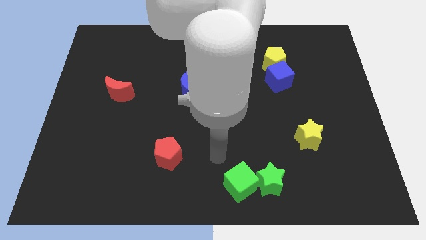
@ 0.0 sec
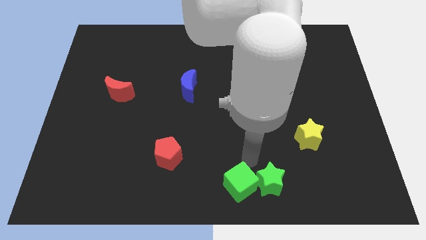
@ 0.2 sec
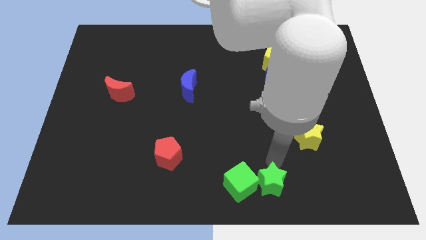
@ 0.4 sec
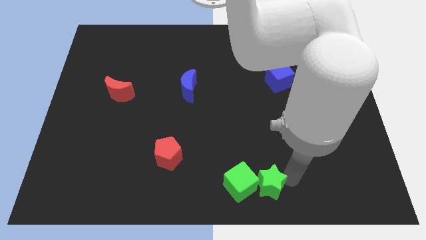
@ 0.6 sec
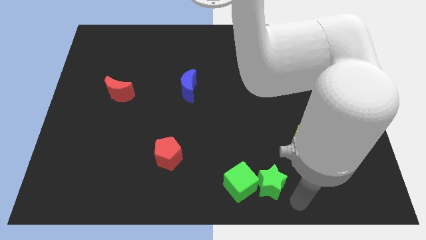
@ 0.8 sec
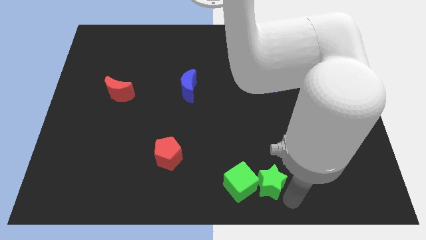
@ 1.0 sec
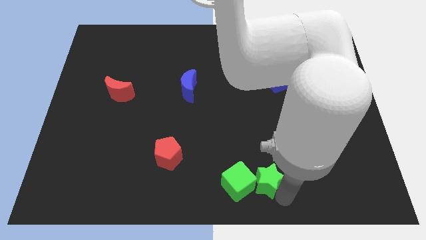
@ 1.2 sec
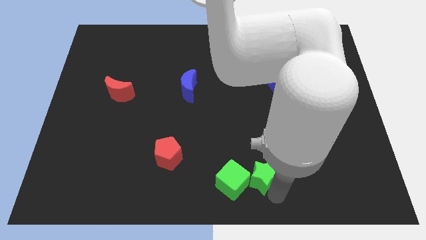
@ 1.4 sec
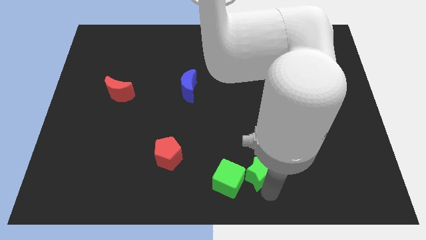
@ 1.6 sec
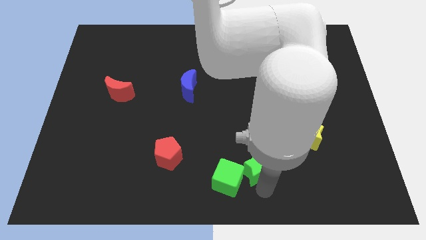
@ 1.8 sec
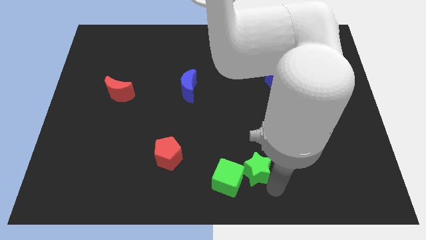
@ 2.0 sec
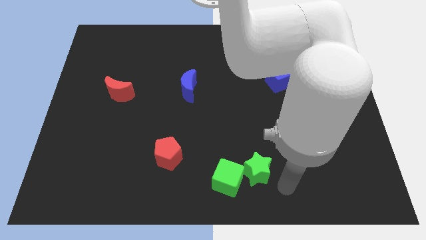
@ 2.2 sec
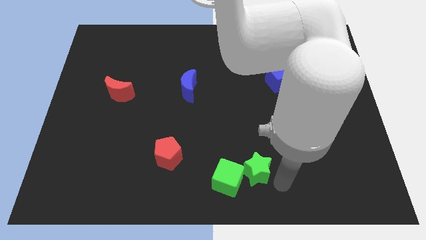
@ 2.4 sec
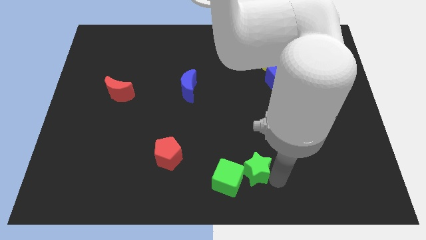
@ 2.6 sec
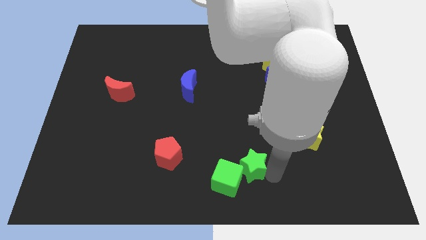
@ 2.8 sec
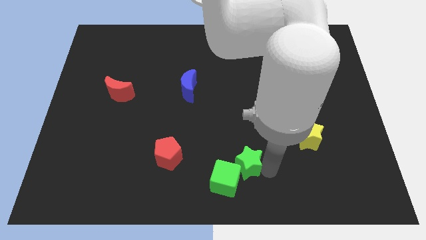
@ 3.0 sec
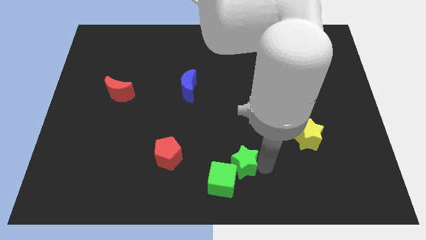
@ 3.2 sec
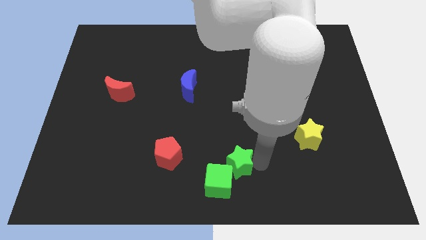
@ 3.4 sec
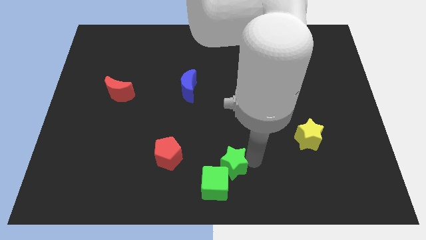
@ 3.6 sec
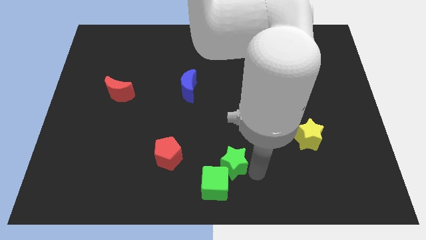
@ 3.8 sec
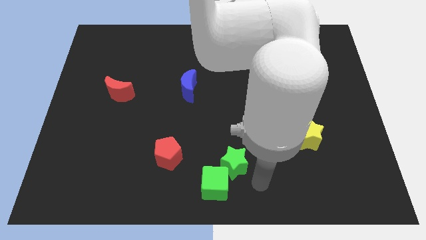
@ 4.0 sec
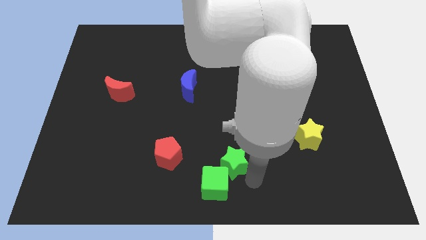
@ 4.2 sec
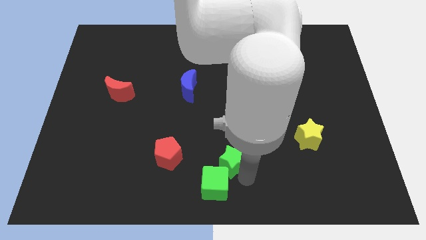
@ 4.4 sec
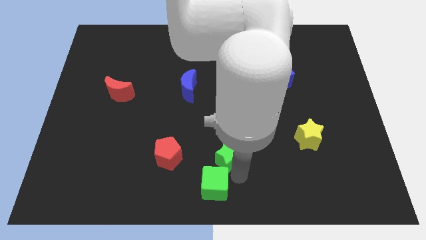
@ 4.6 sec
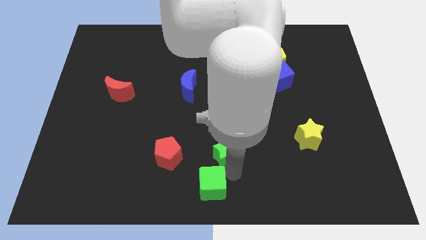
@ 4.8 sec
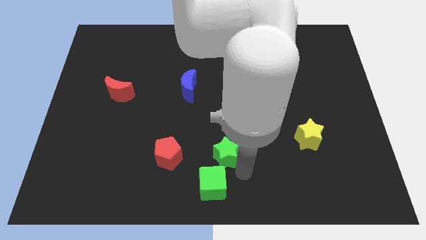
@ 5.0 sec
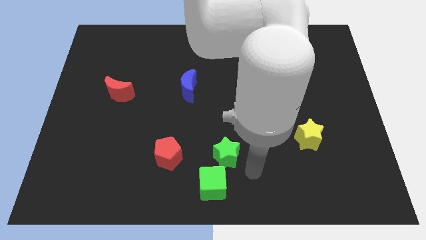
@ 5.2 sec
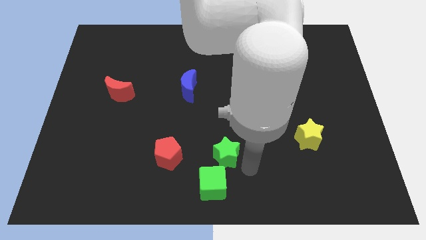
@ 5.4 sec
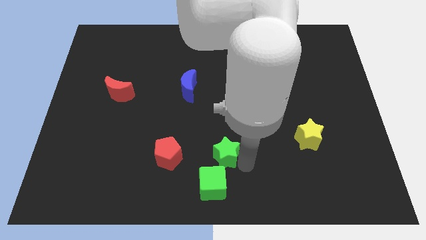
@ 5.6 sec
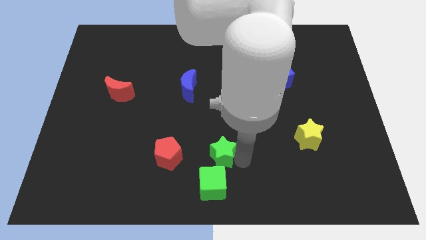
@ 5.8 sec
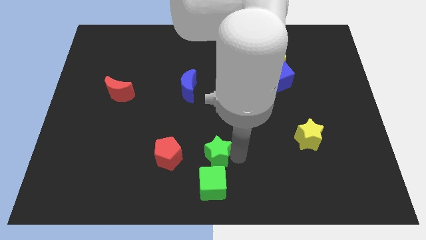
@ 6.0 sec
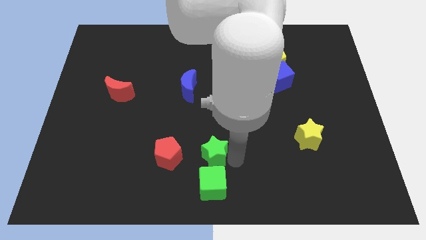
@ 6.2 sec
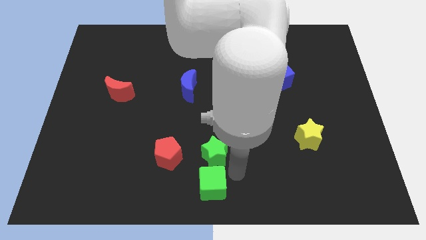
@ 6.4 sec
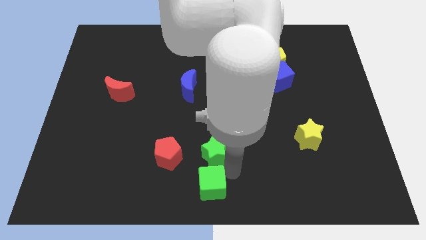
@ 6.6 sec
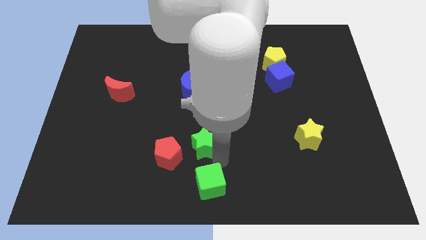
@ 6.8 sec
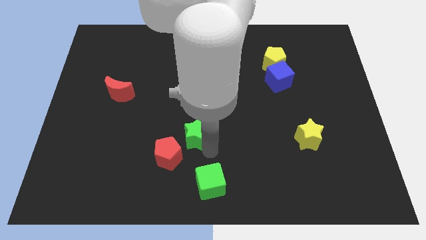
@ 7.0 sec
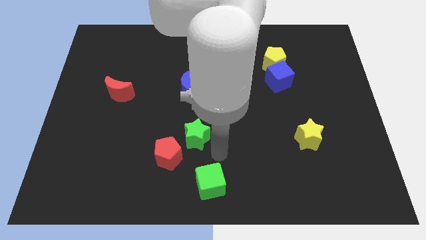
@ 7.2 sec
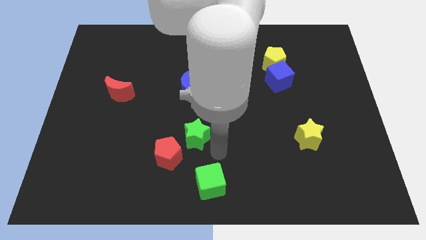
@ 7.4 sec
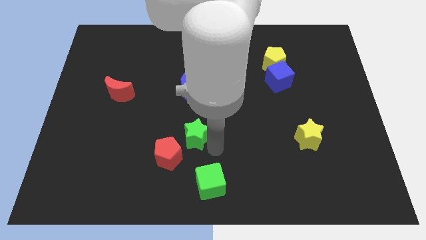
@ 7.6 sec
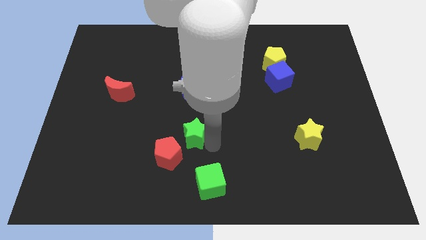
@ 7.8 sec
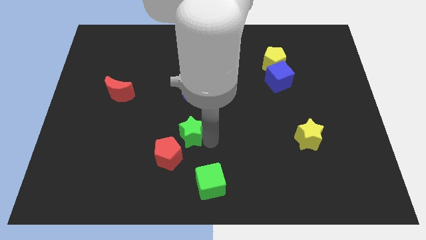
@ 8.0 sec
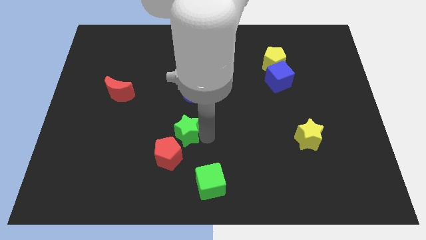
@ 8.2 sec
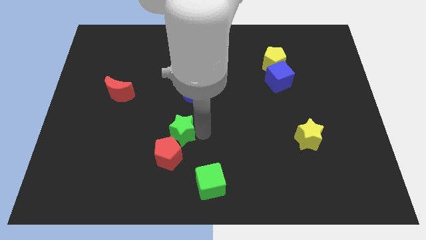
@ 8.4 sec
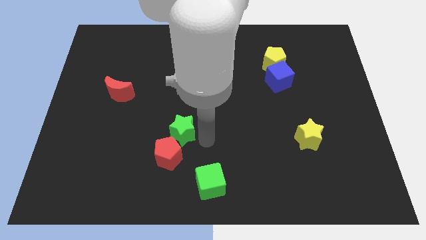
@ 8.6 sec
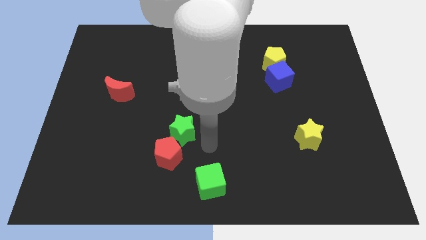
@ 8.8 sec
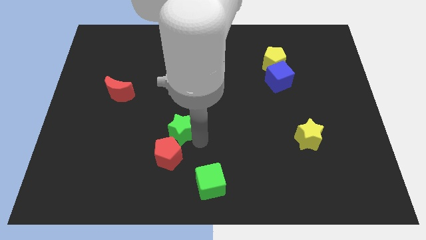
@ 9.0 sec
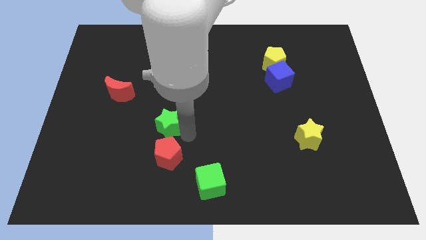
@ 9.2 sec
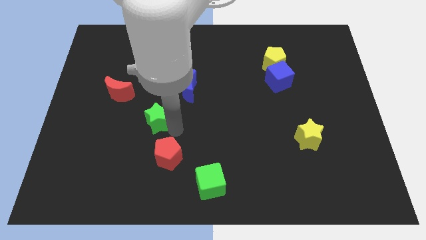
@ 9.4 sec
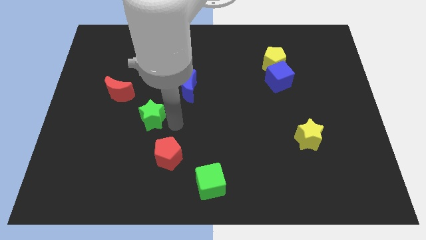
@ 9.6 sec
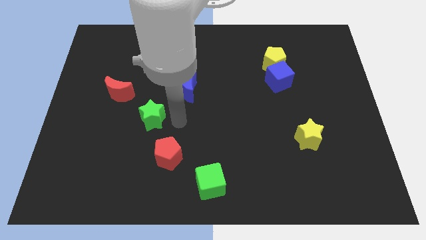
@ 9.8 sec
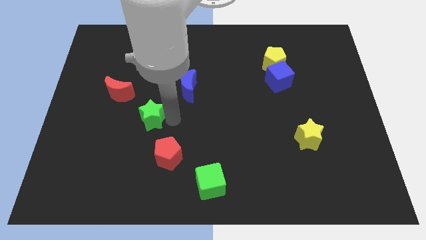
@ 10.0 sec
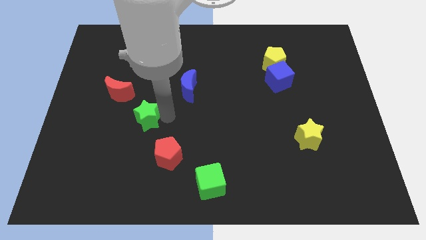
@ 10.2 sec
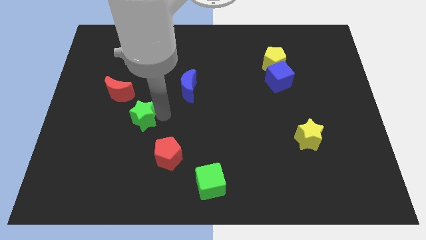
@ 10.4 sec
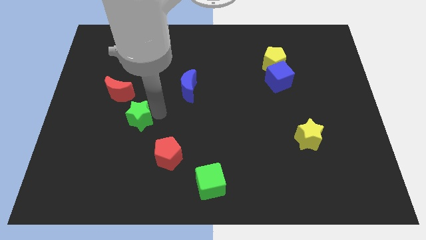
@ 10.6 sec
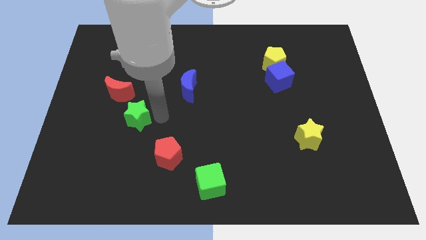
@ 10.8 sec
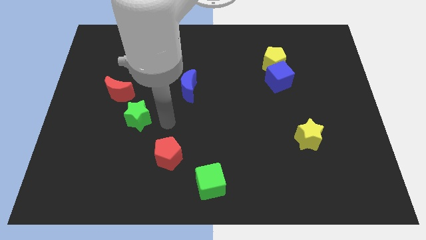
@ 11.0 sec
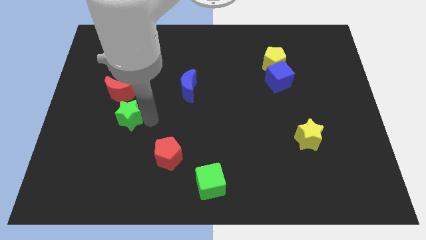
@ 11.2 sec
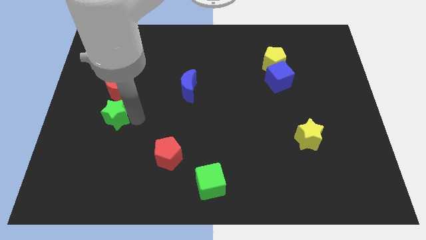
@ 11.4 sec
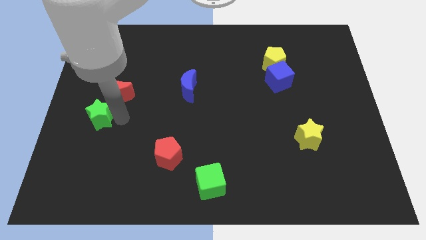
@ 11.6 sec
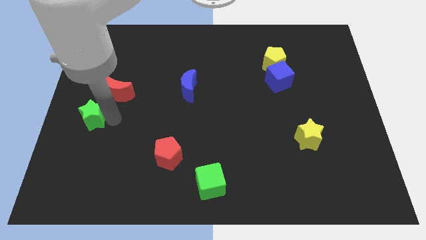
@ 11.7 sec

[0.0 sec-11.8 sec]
put the green star to the left side of the board

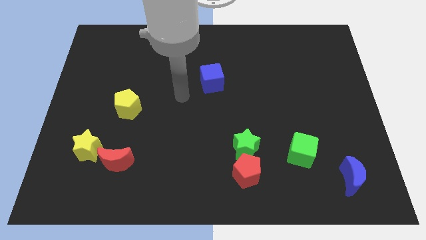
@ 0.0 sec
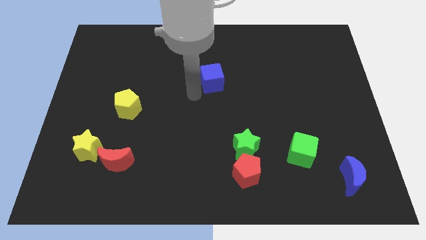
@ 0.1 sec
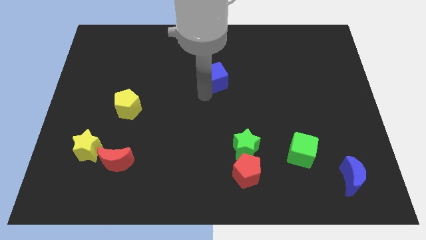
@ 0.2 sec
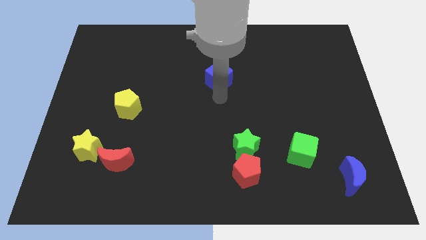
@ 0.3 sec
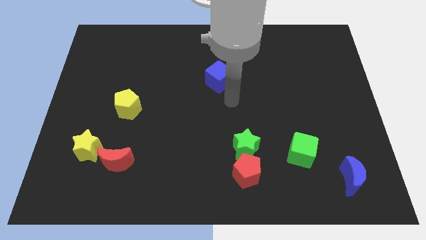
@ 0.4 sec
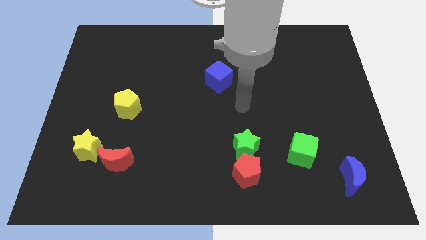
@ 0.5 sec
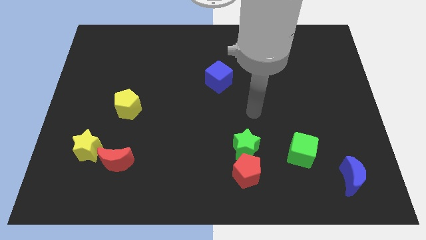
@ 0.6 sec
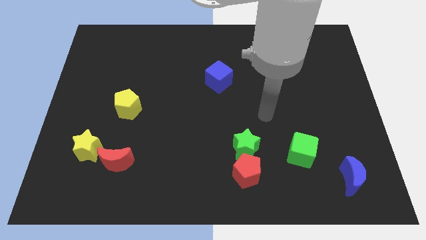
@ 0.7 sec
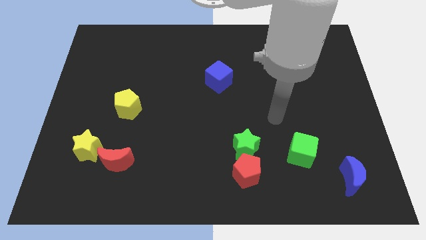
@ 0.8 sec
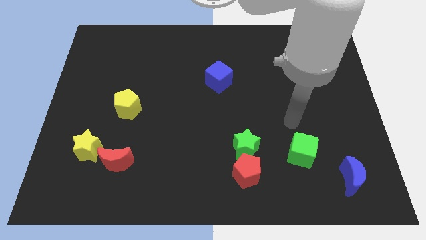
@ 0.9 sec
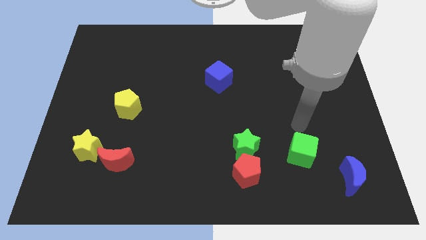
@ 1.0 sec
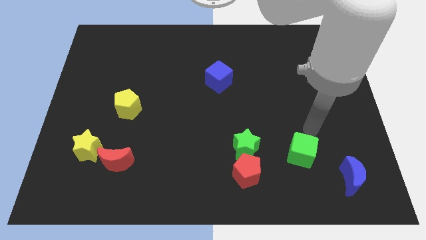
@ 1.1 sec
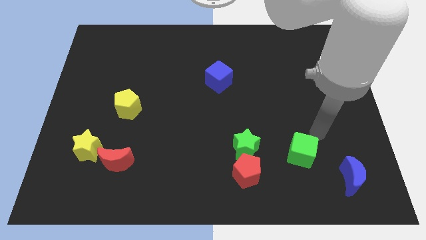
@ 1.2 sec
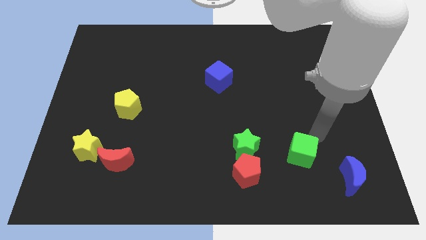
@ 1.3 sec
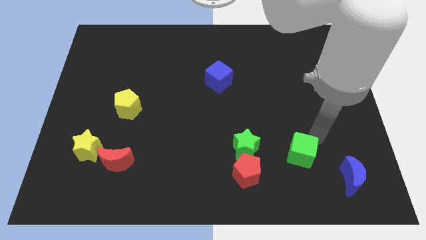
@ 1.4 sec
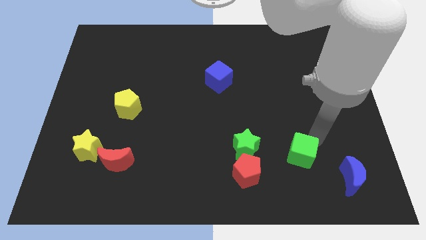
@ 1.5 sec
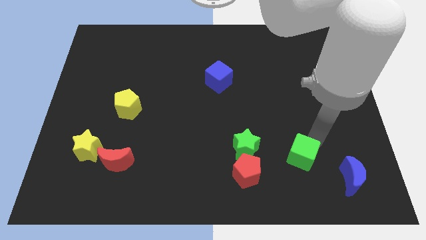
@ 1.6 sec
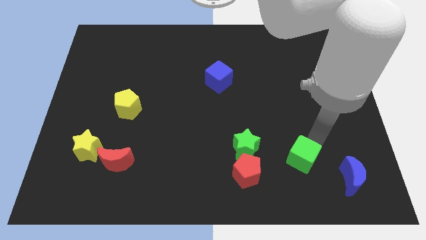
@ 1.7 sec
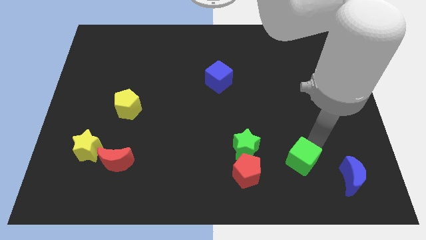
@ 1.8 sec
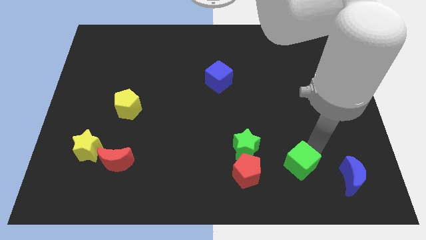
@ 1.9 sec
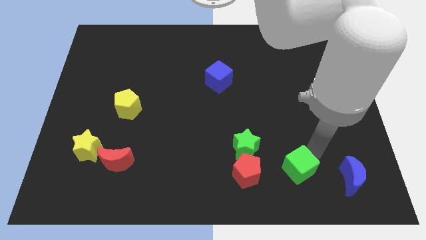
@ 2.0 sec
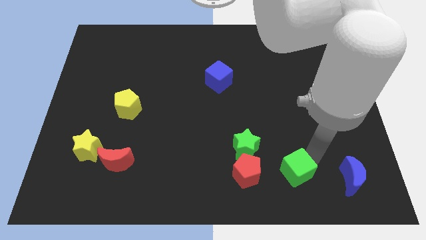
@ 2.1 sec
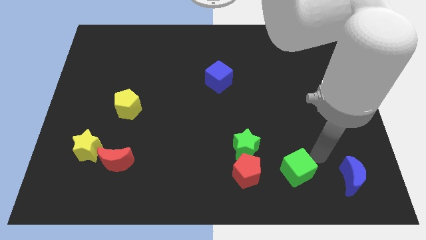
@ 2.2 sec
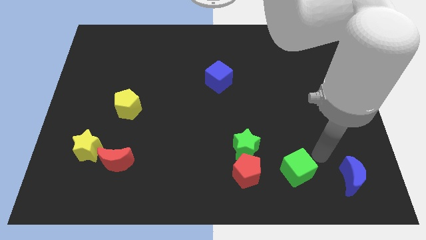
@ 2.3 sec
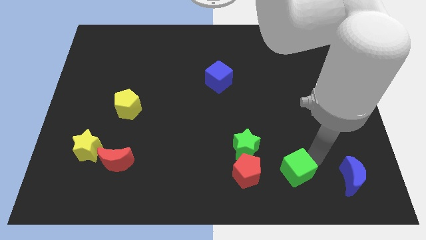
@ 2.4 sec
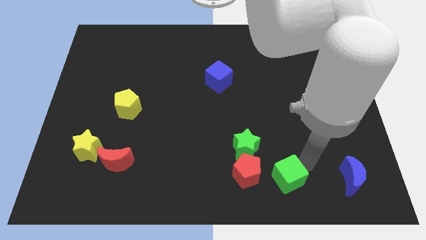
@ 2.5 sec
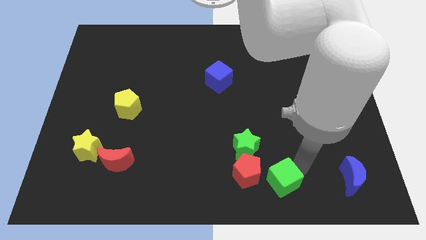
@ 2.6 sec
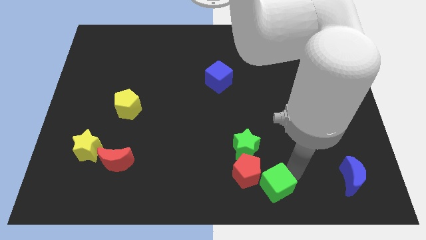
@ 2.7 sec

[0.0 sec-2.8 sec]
push the green cube to the bottom
